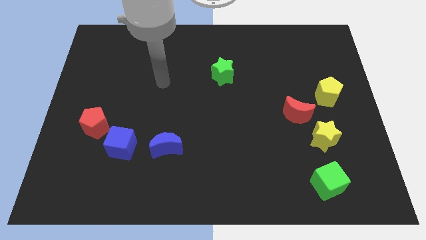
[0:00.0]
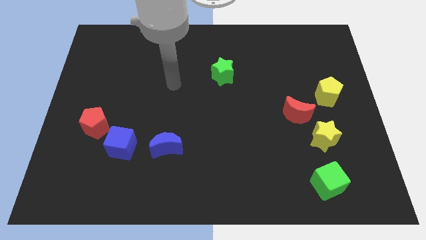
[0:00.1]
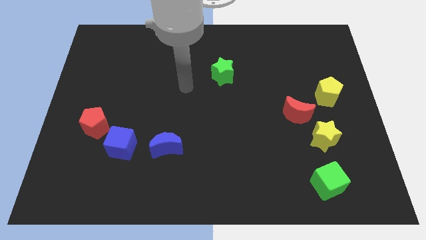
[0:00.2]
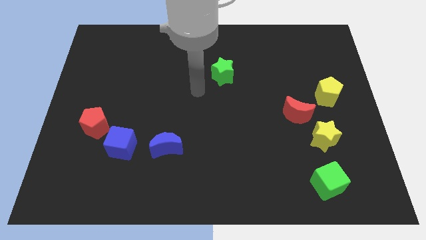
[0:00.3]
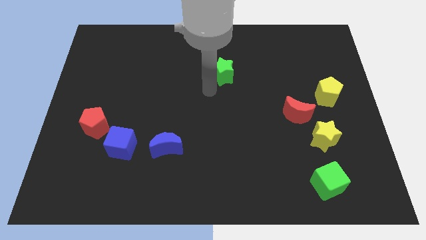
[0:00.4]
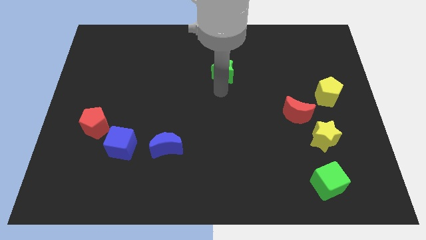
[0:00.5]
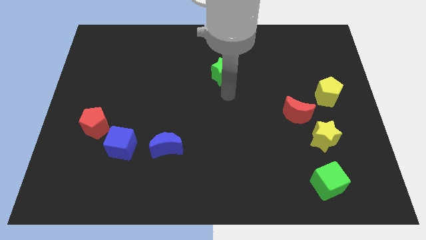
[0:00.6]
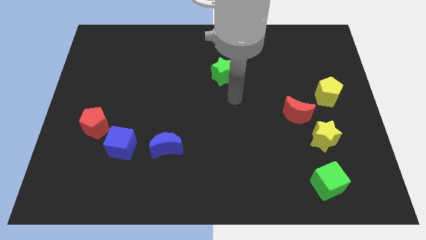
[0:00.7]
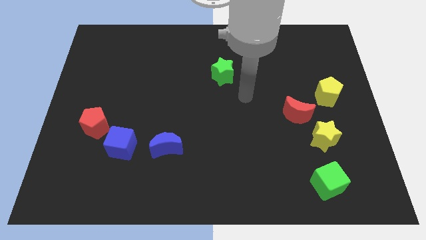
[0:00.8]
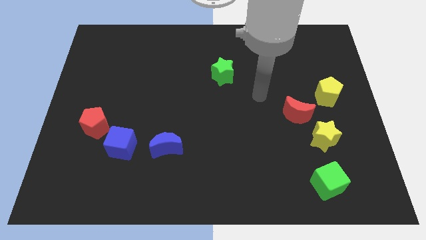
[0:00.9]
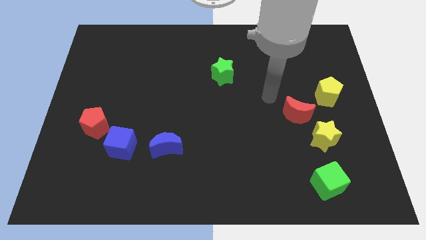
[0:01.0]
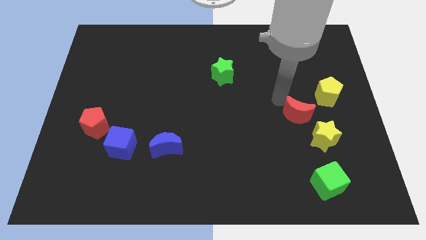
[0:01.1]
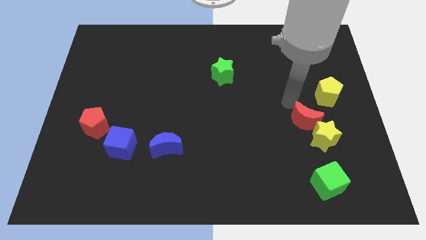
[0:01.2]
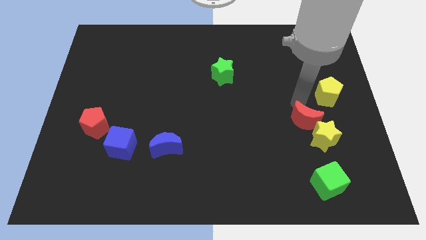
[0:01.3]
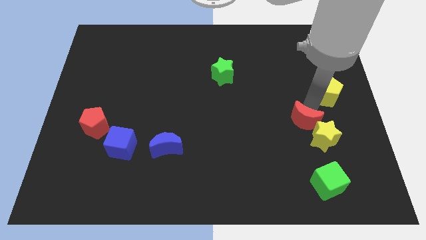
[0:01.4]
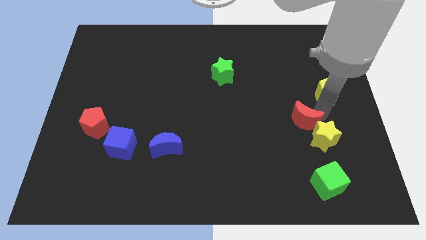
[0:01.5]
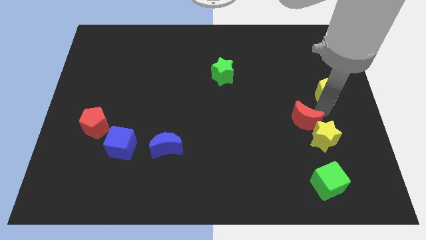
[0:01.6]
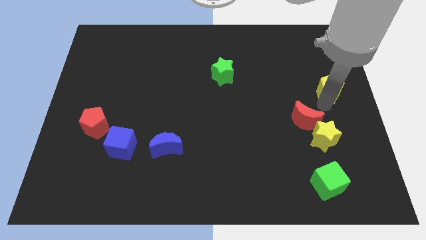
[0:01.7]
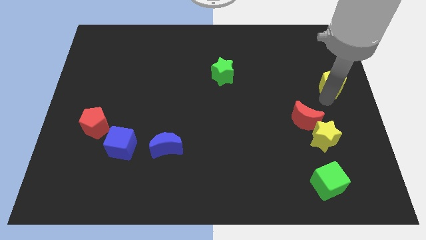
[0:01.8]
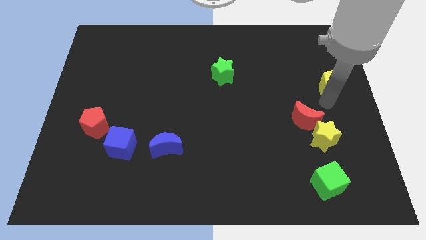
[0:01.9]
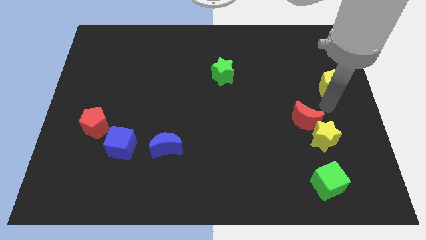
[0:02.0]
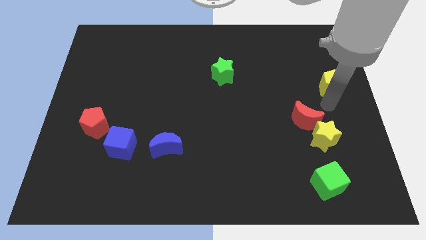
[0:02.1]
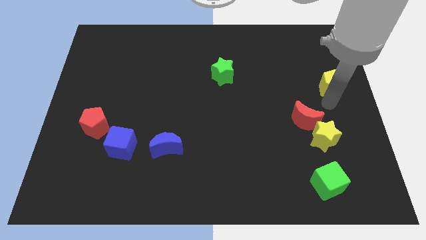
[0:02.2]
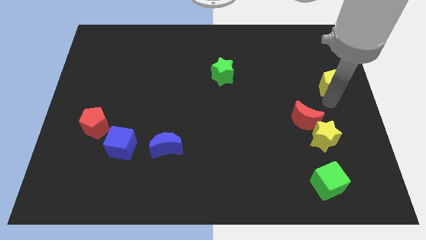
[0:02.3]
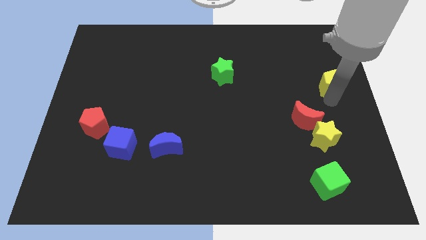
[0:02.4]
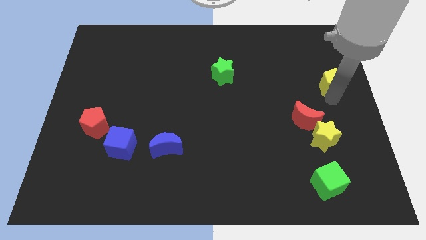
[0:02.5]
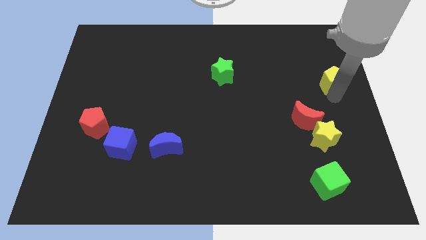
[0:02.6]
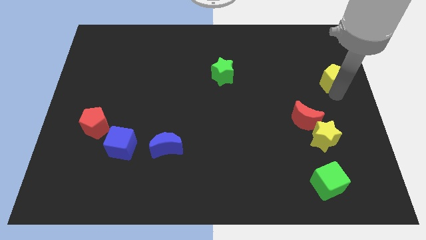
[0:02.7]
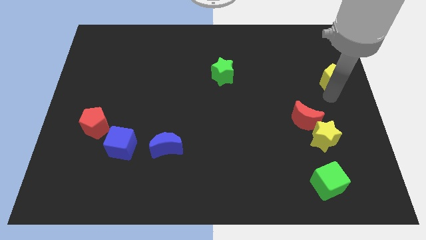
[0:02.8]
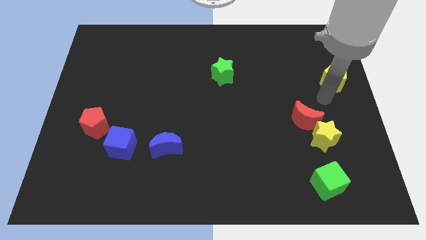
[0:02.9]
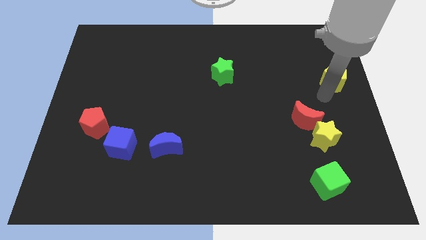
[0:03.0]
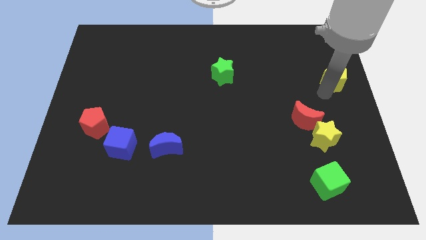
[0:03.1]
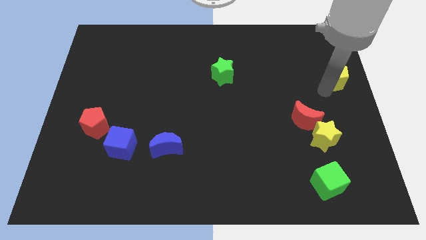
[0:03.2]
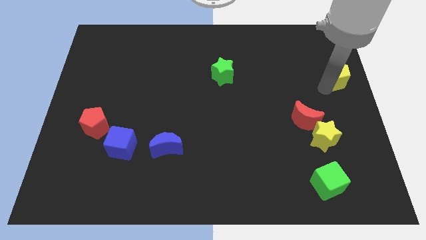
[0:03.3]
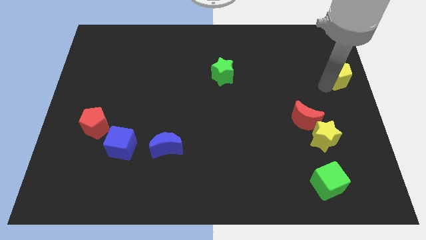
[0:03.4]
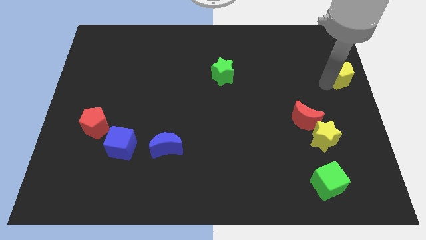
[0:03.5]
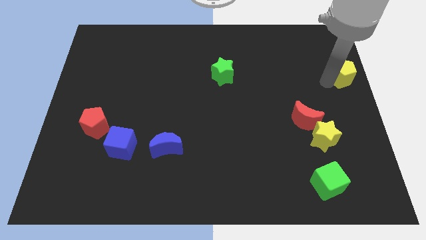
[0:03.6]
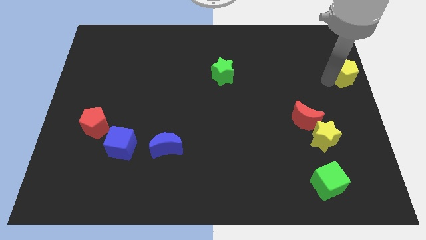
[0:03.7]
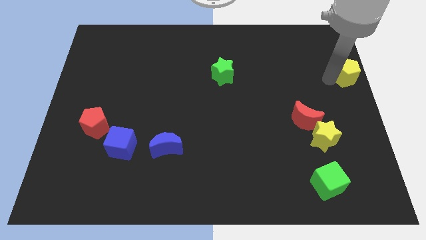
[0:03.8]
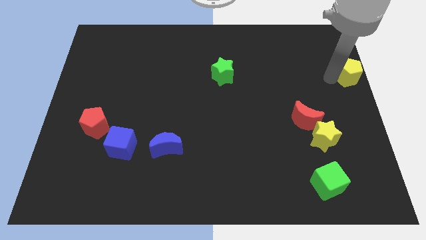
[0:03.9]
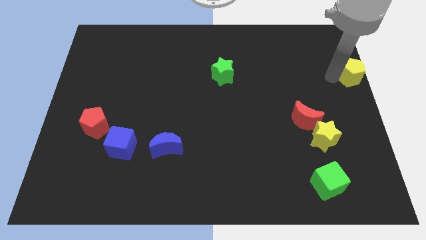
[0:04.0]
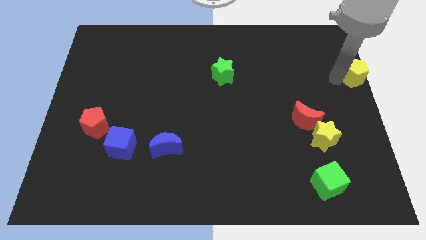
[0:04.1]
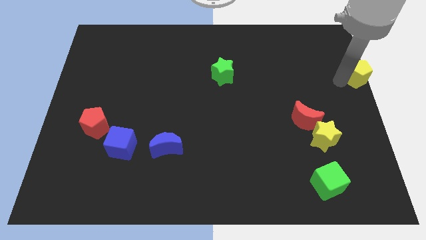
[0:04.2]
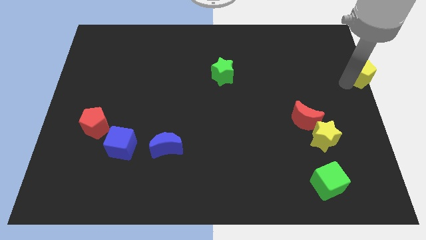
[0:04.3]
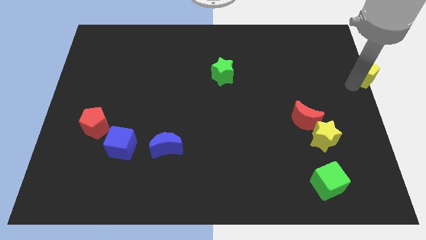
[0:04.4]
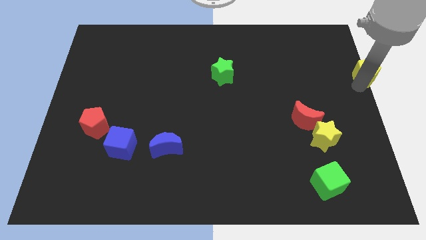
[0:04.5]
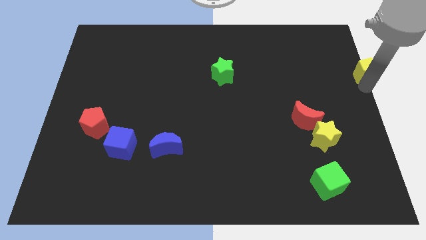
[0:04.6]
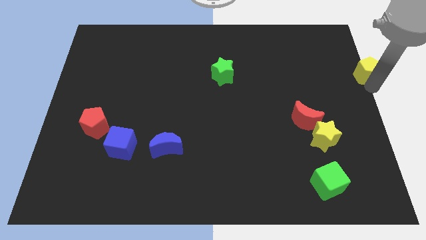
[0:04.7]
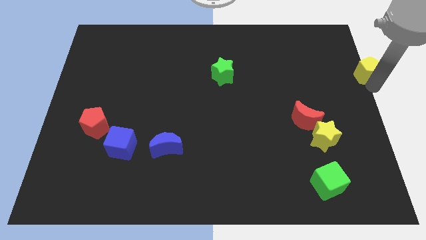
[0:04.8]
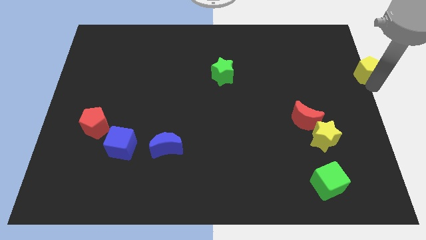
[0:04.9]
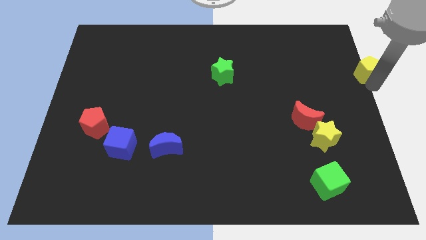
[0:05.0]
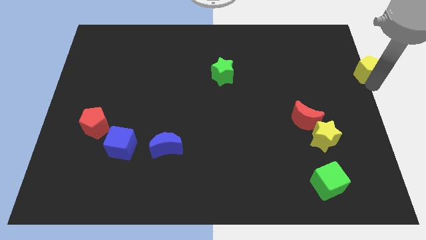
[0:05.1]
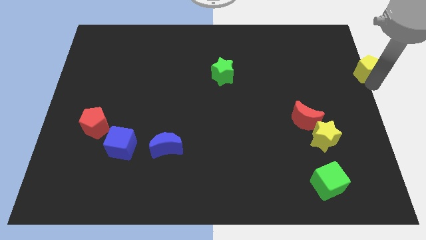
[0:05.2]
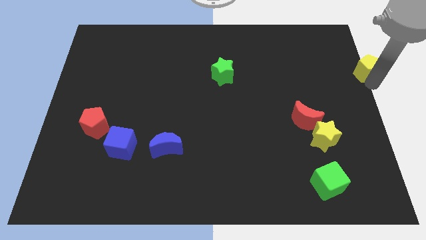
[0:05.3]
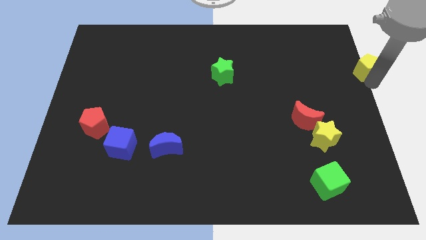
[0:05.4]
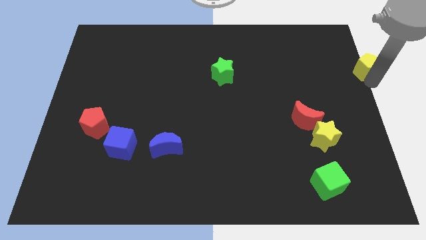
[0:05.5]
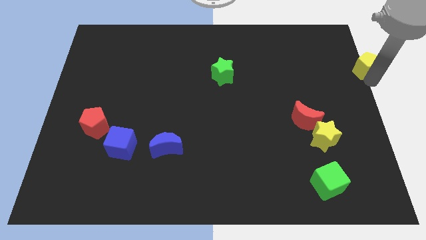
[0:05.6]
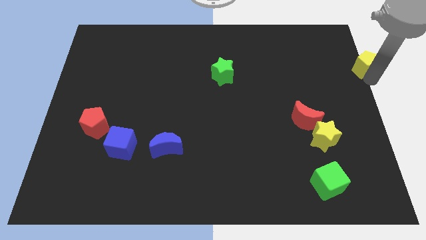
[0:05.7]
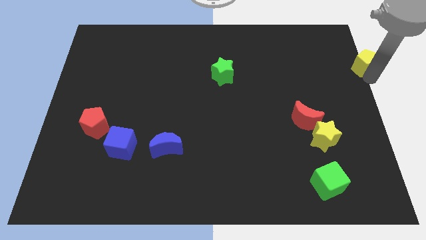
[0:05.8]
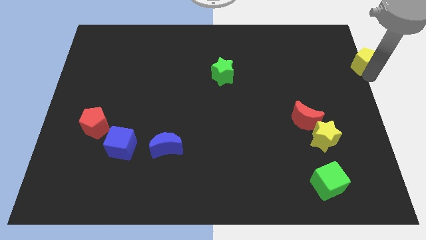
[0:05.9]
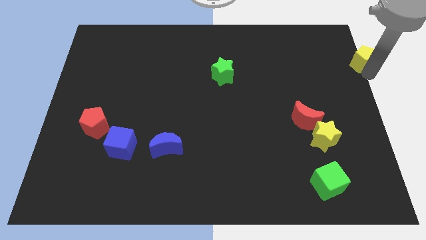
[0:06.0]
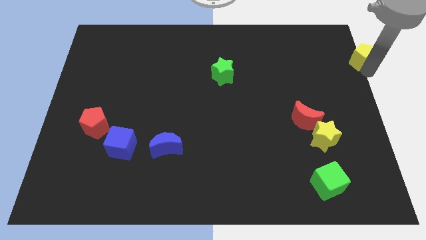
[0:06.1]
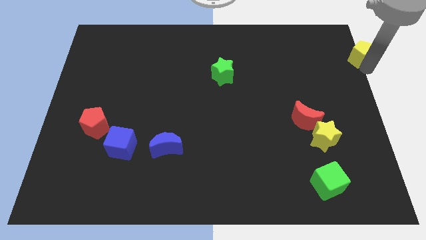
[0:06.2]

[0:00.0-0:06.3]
put the yellow pentagon to the upper right corner

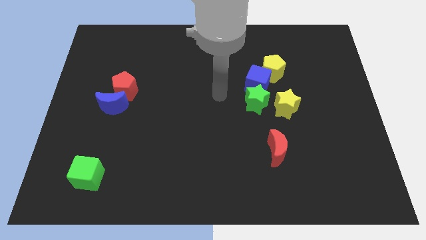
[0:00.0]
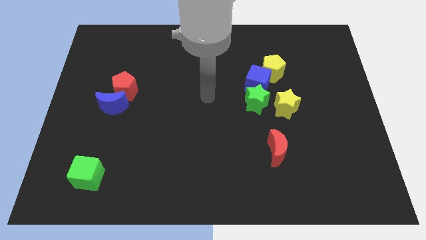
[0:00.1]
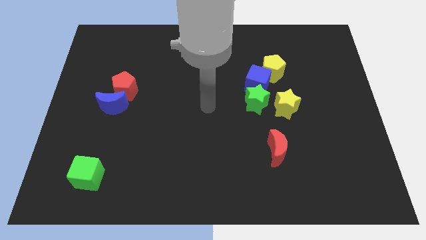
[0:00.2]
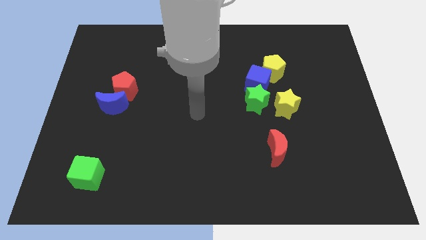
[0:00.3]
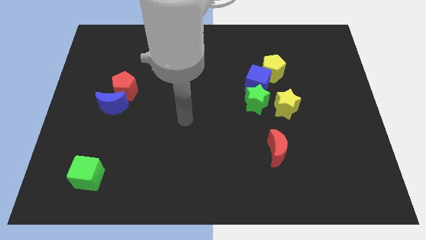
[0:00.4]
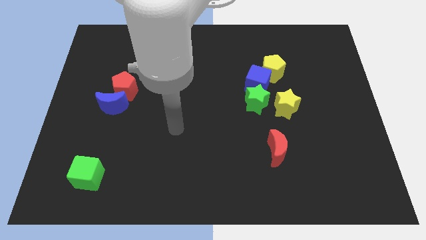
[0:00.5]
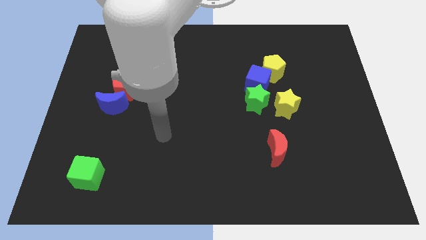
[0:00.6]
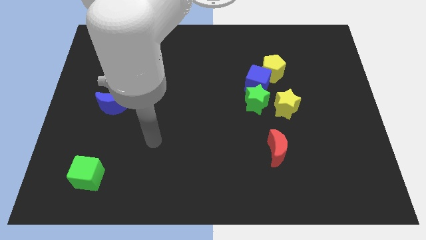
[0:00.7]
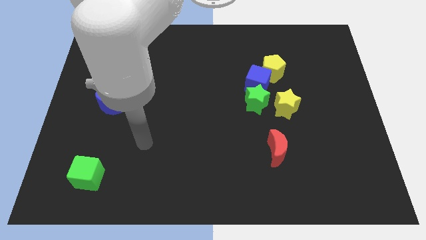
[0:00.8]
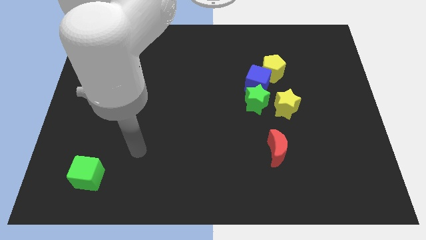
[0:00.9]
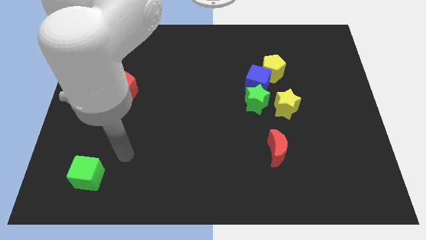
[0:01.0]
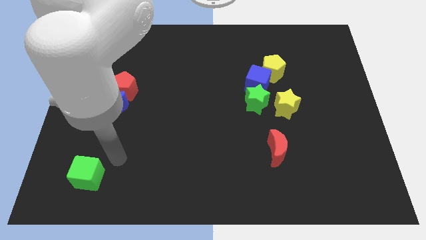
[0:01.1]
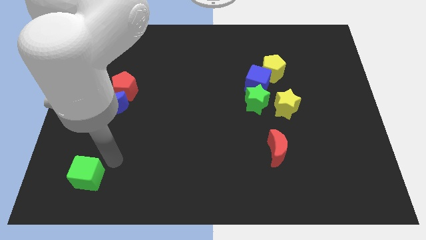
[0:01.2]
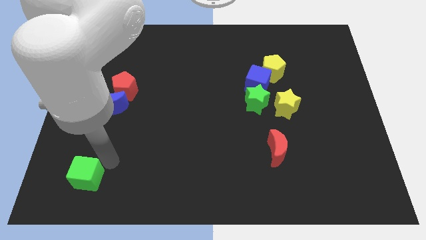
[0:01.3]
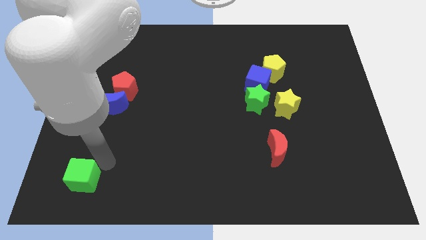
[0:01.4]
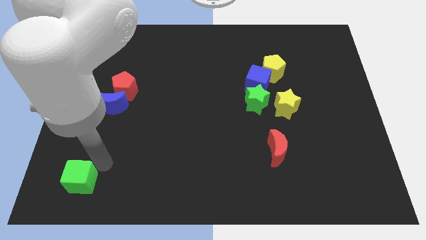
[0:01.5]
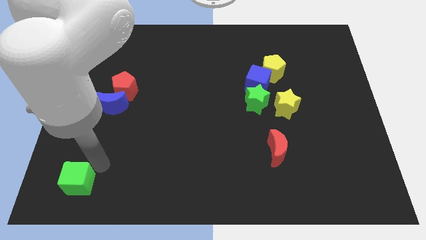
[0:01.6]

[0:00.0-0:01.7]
move the green cube to the bottom left
